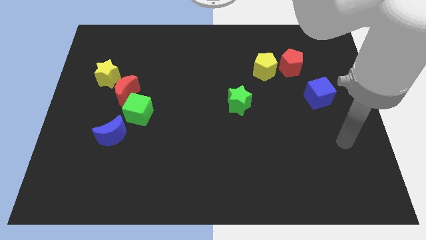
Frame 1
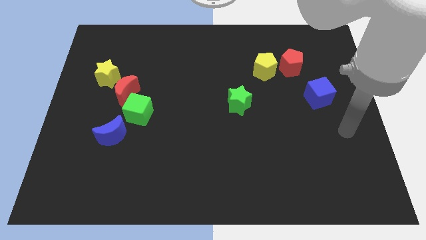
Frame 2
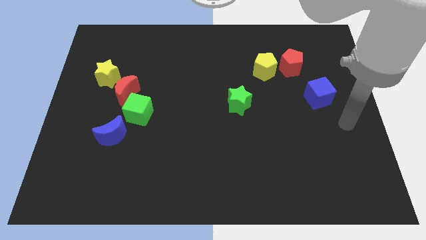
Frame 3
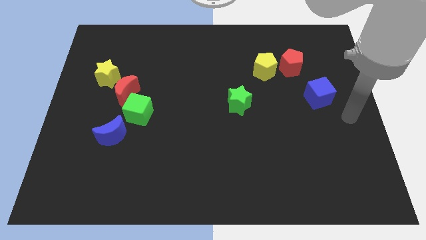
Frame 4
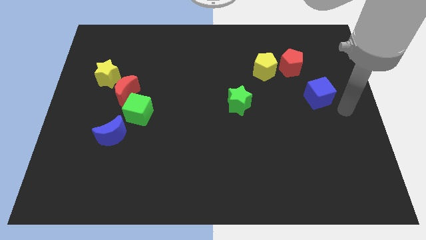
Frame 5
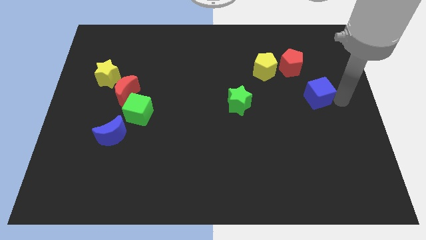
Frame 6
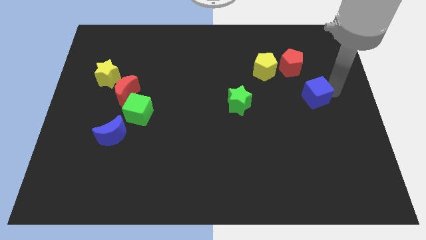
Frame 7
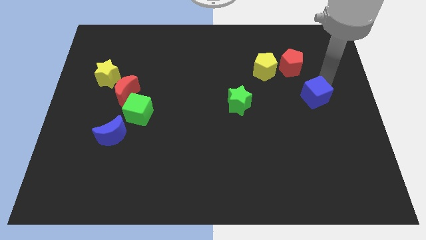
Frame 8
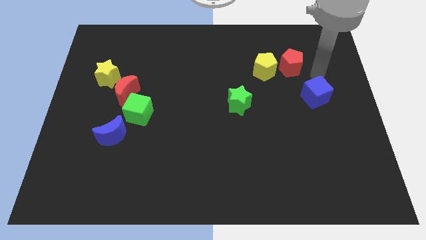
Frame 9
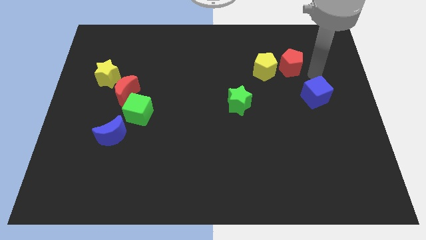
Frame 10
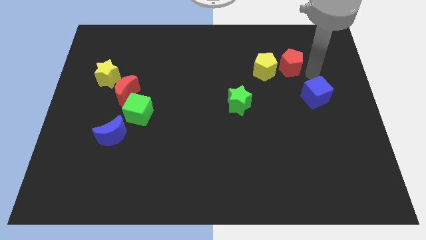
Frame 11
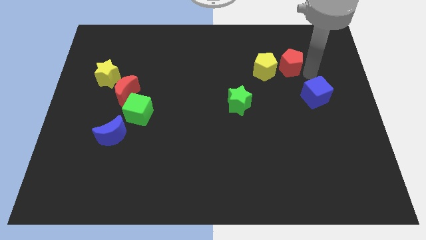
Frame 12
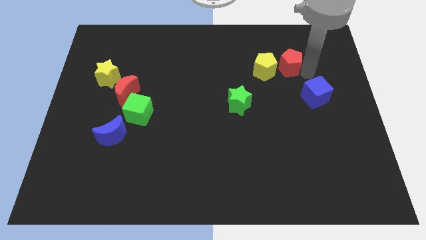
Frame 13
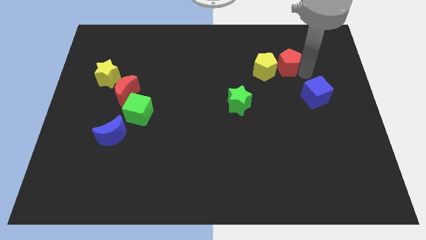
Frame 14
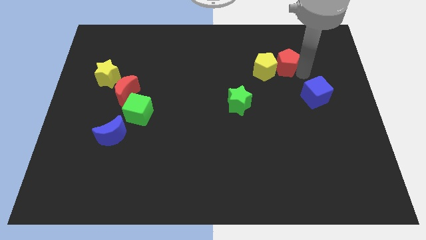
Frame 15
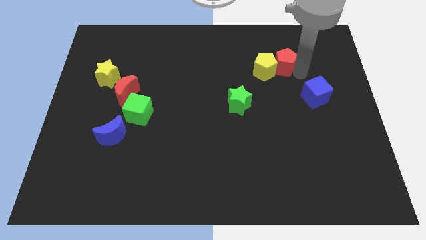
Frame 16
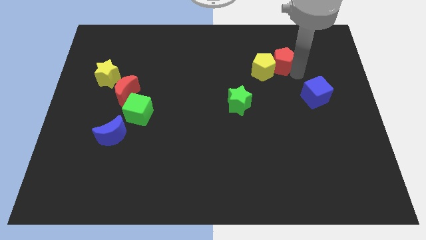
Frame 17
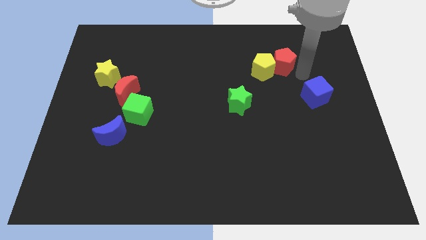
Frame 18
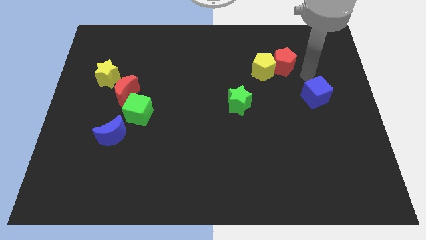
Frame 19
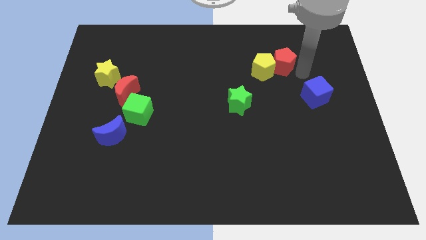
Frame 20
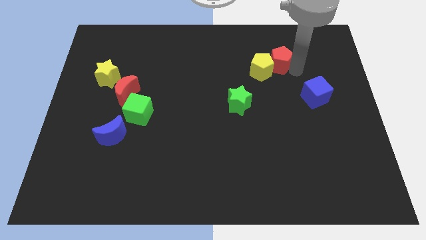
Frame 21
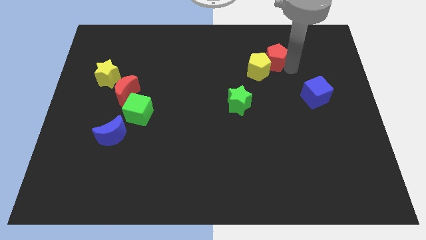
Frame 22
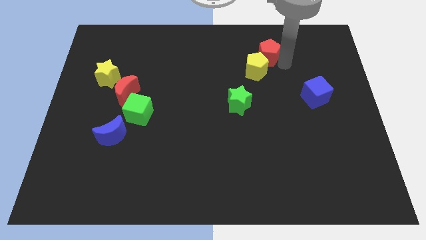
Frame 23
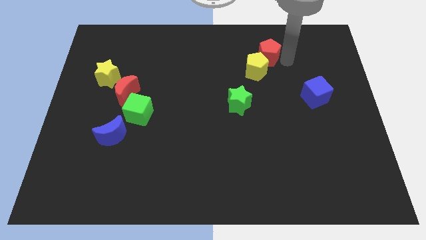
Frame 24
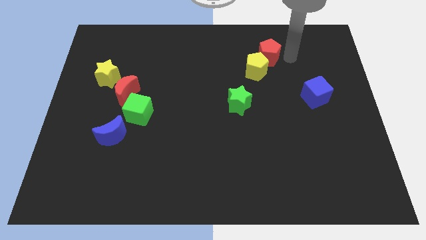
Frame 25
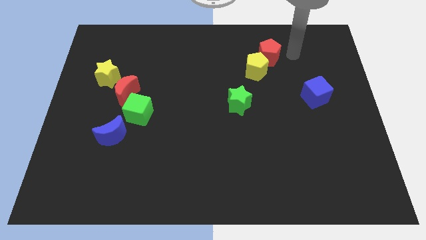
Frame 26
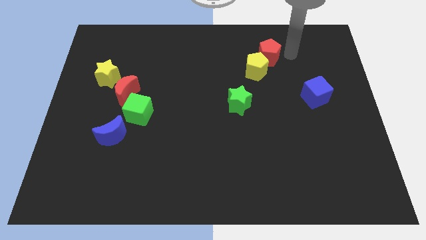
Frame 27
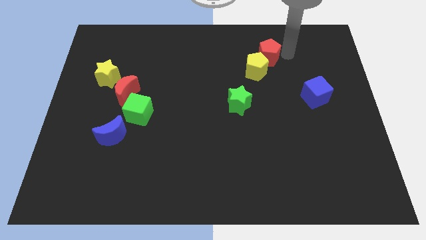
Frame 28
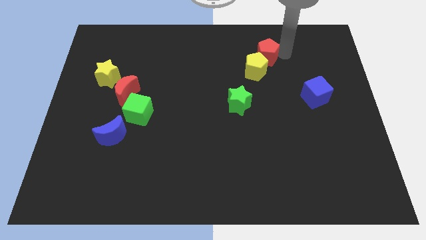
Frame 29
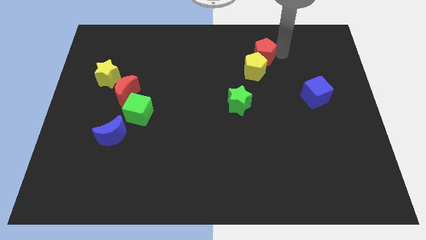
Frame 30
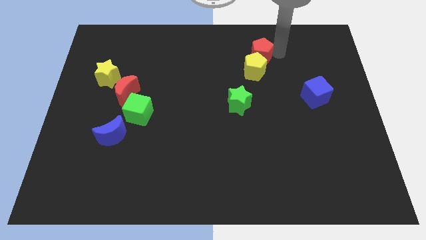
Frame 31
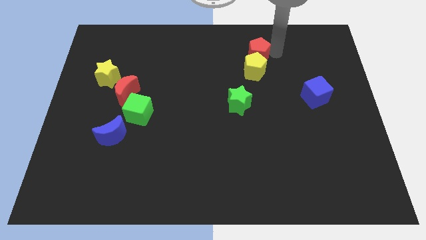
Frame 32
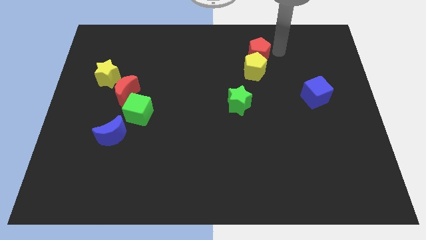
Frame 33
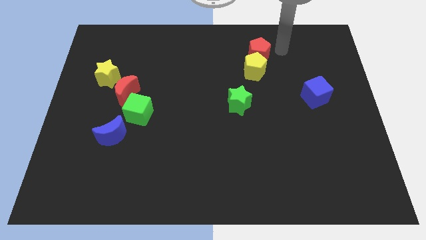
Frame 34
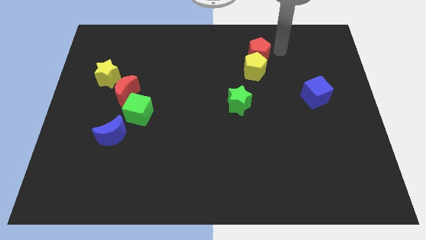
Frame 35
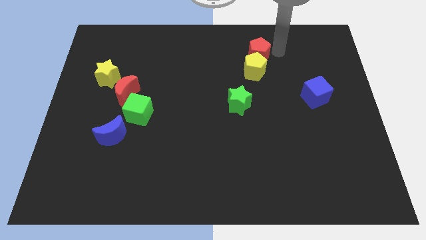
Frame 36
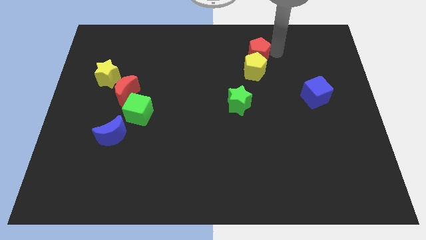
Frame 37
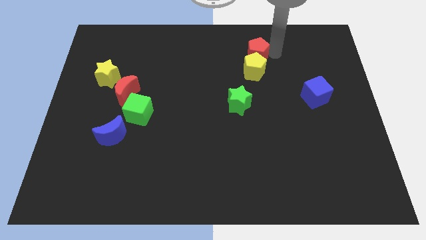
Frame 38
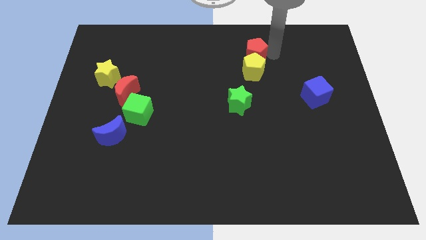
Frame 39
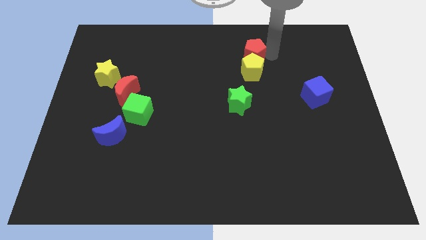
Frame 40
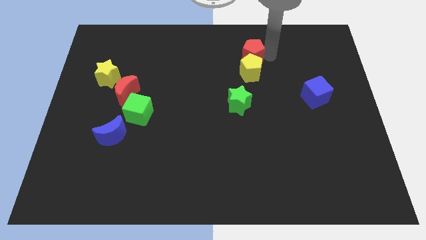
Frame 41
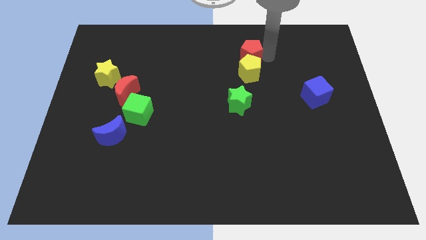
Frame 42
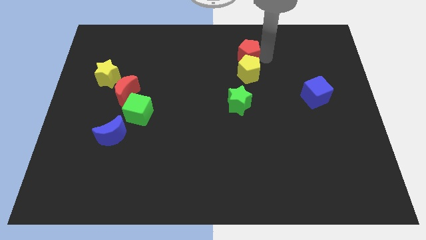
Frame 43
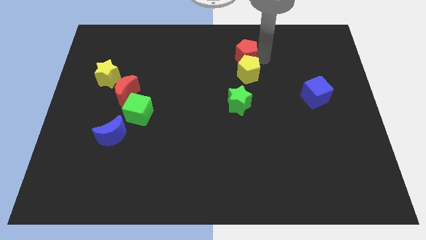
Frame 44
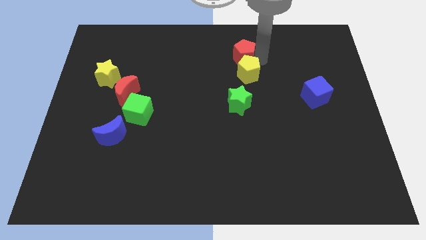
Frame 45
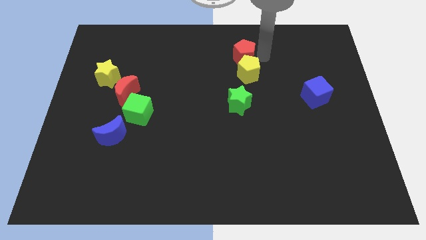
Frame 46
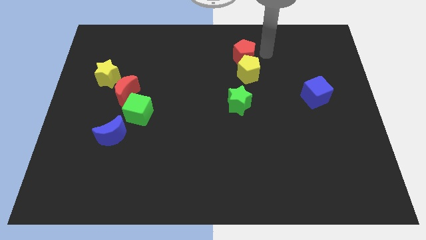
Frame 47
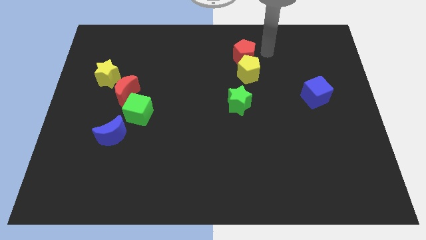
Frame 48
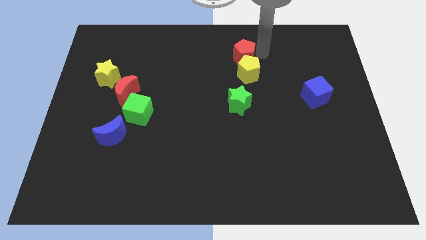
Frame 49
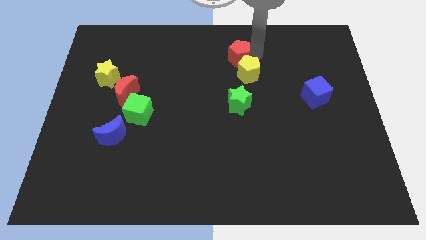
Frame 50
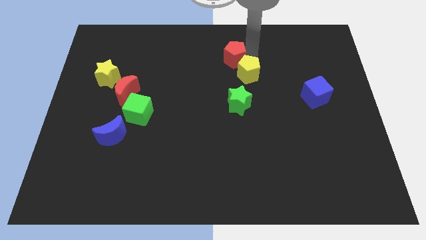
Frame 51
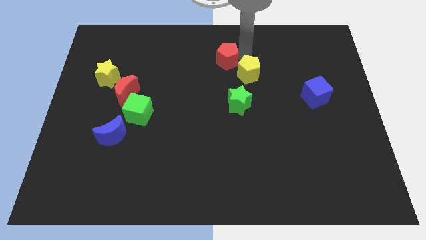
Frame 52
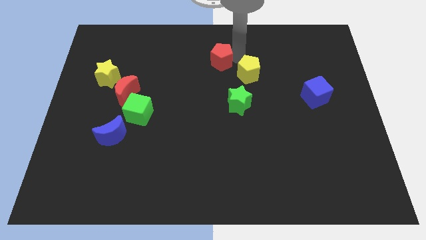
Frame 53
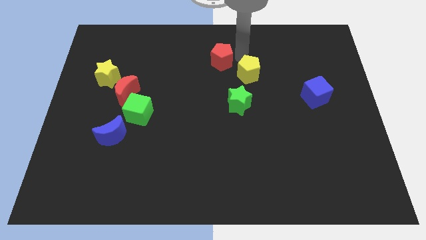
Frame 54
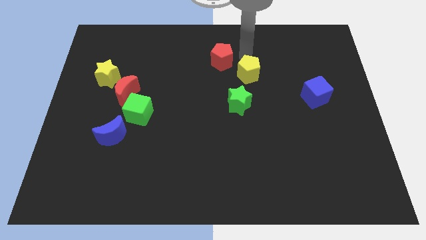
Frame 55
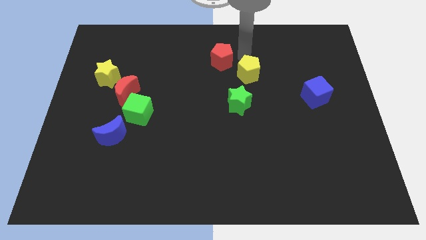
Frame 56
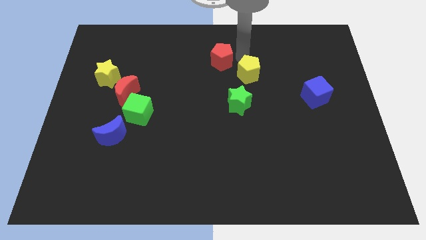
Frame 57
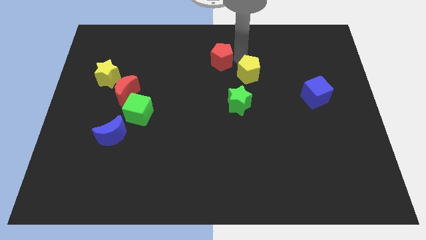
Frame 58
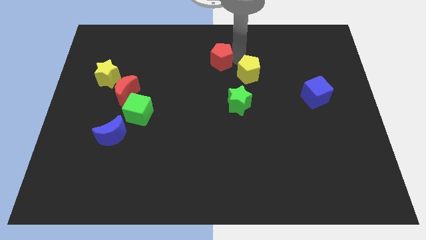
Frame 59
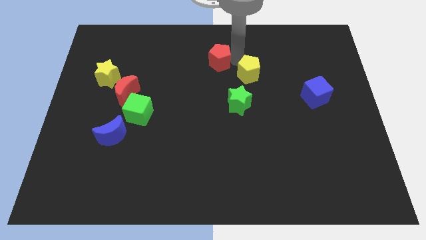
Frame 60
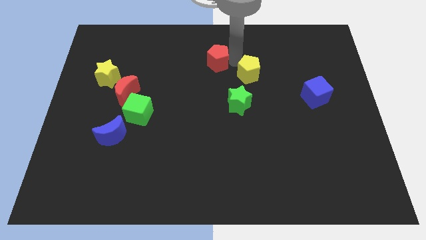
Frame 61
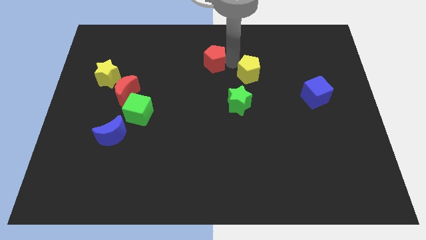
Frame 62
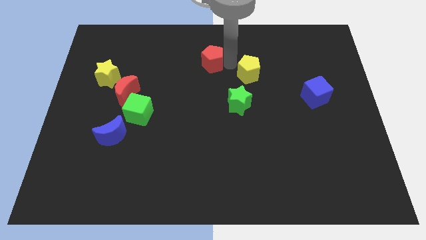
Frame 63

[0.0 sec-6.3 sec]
push the red pentagon left

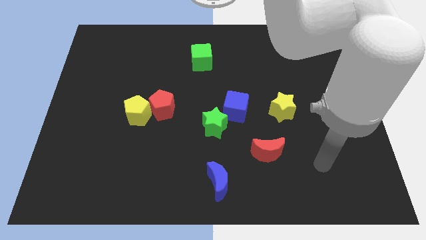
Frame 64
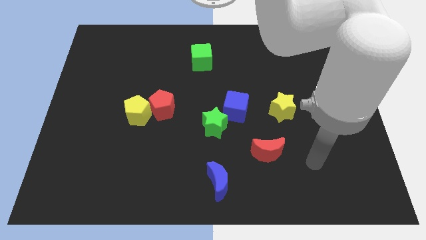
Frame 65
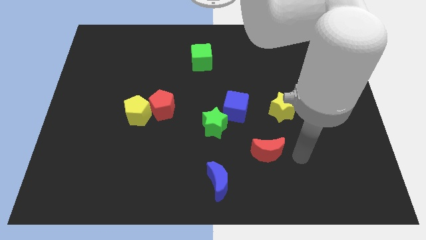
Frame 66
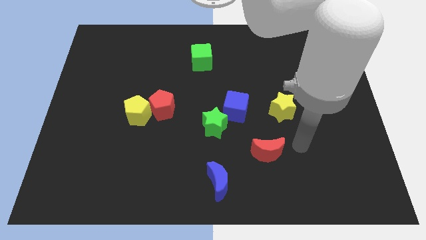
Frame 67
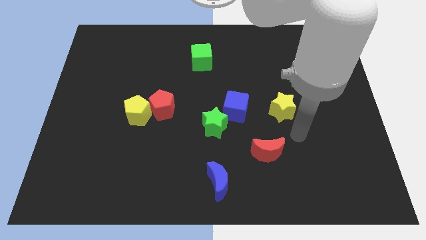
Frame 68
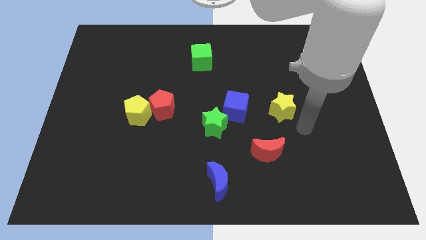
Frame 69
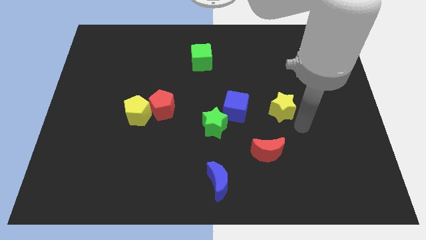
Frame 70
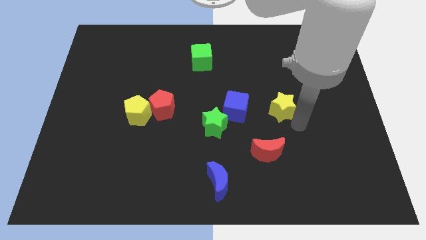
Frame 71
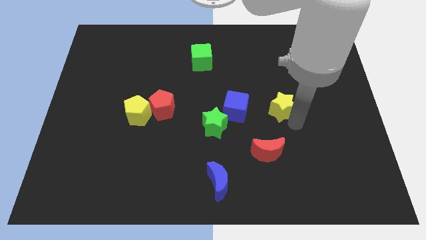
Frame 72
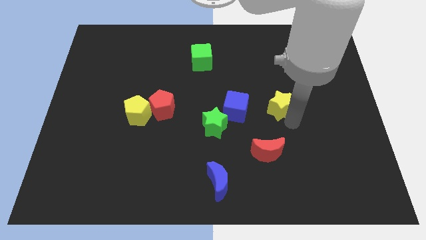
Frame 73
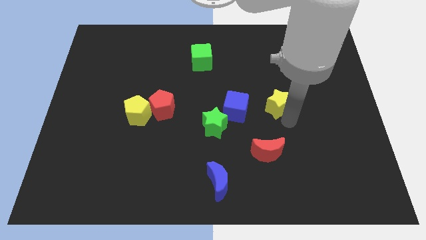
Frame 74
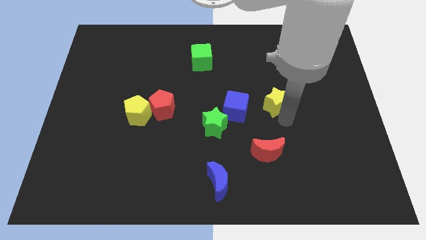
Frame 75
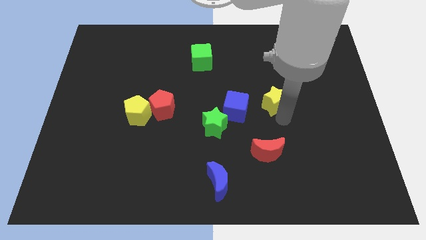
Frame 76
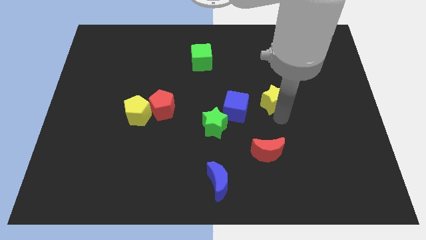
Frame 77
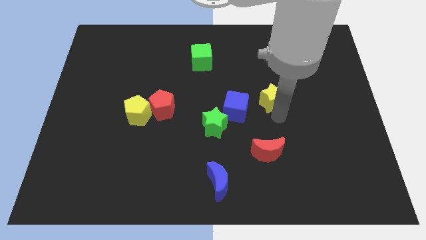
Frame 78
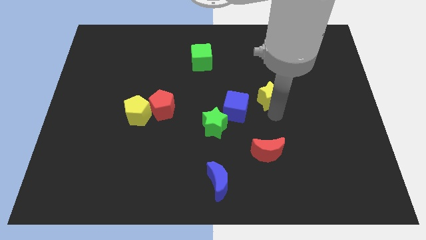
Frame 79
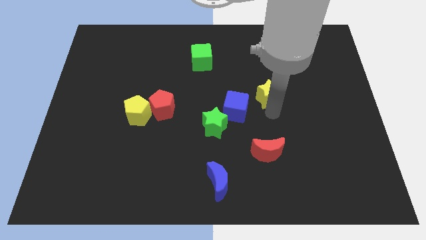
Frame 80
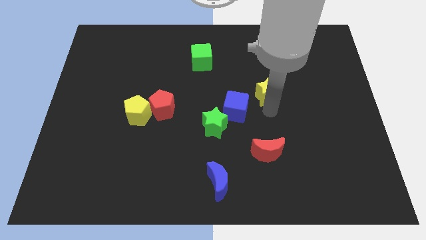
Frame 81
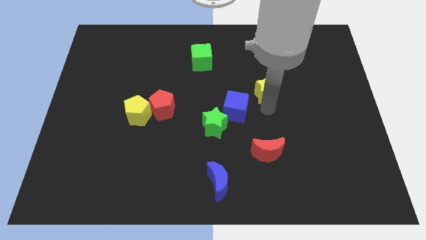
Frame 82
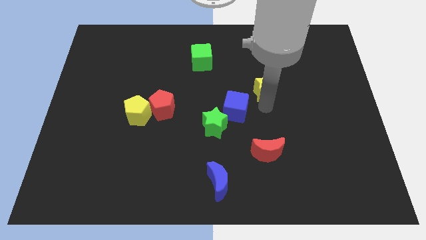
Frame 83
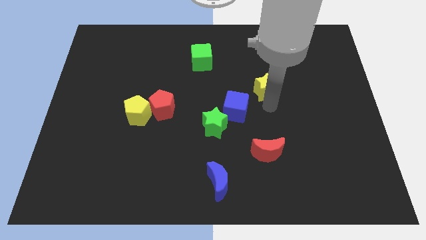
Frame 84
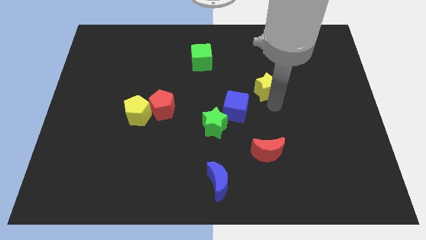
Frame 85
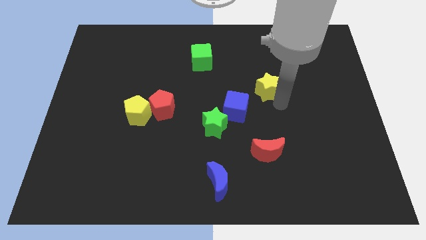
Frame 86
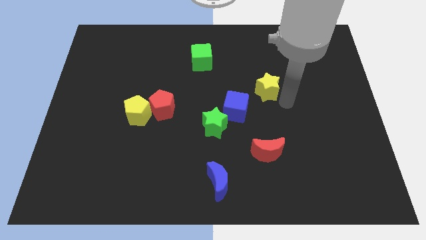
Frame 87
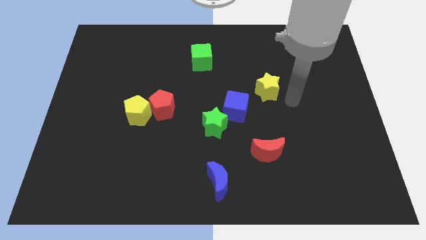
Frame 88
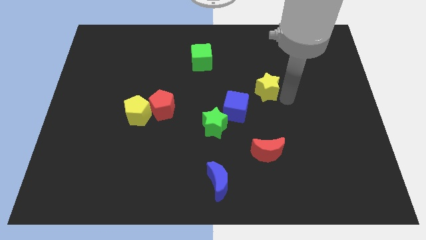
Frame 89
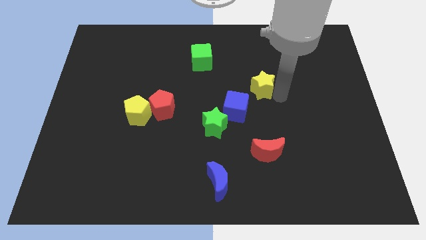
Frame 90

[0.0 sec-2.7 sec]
slide the yellow star somewhat up and left diagonally
